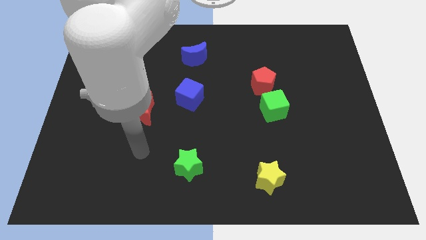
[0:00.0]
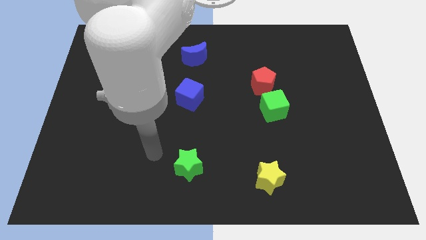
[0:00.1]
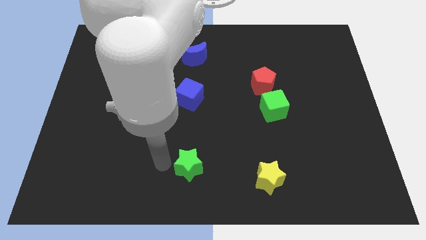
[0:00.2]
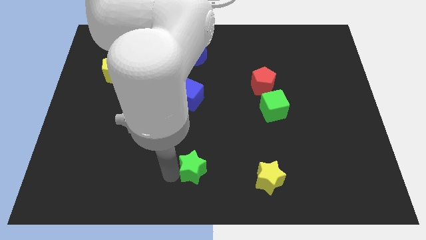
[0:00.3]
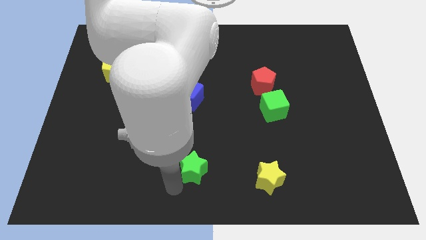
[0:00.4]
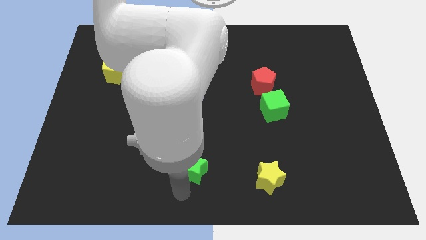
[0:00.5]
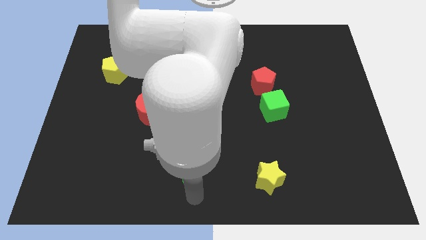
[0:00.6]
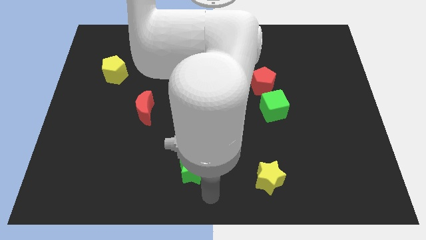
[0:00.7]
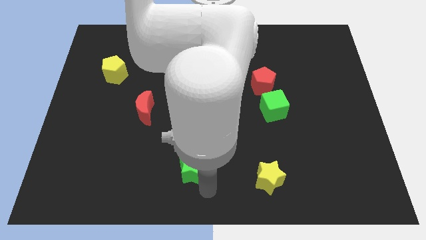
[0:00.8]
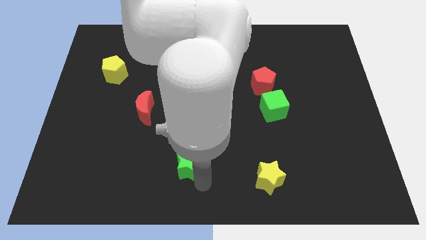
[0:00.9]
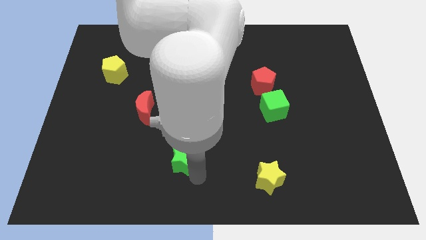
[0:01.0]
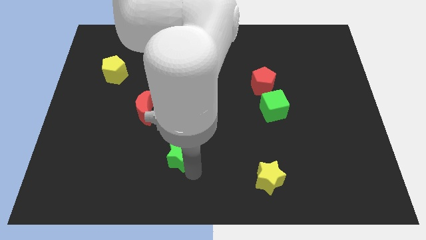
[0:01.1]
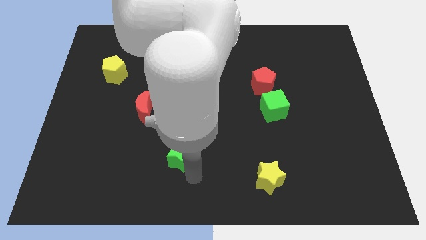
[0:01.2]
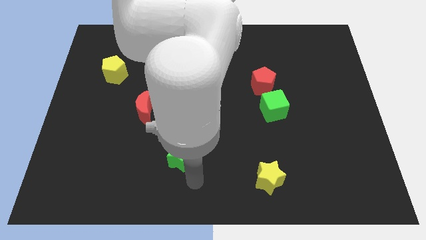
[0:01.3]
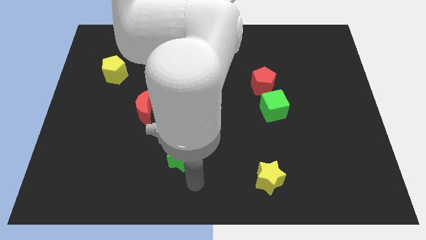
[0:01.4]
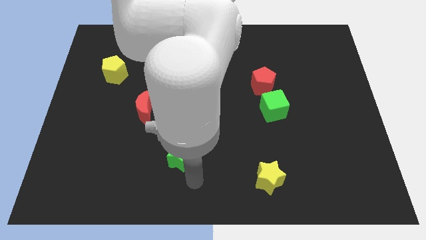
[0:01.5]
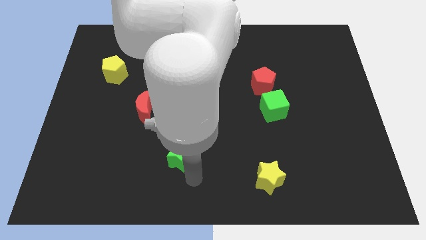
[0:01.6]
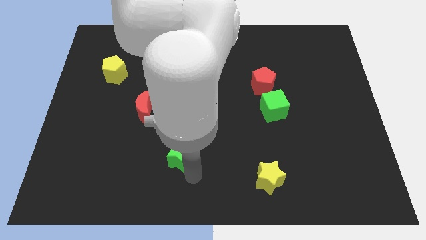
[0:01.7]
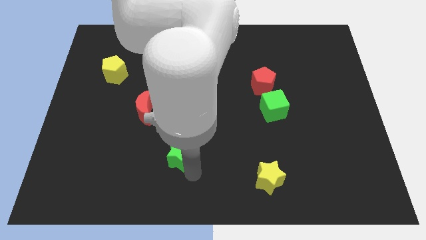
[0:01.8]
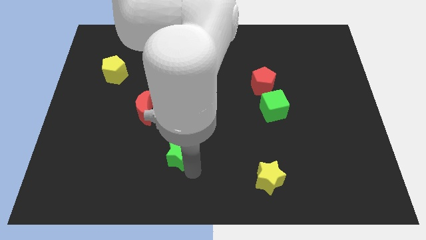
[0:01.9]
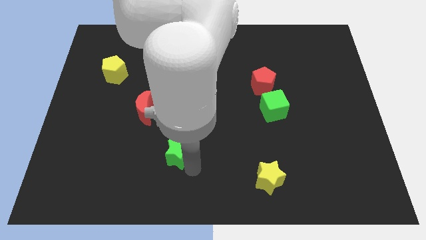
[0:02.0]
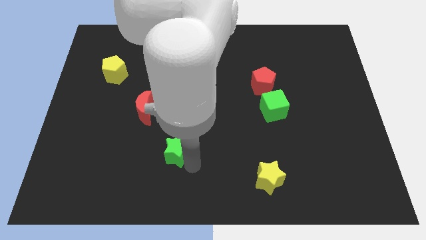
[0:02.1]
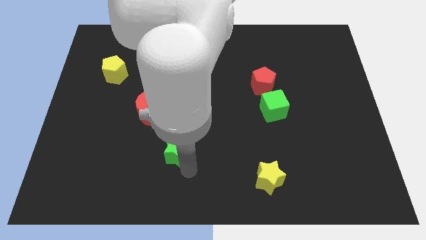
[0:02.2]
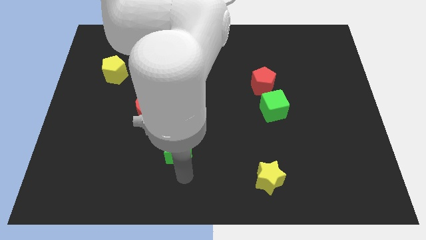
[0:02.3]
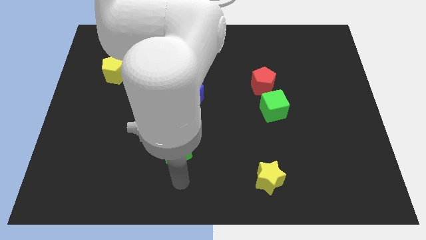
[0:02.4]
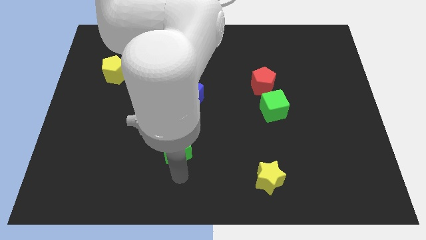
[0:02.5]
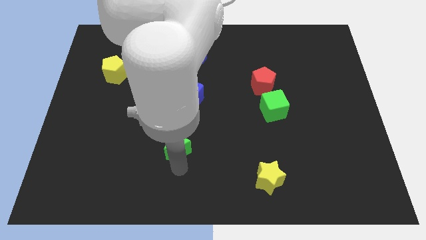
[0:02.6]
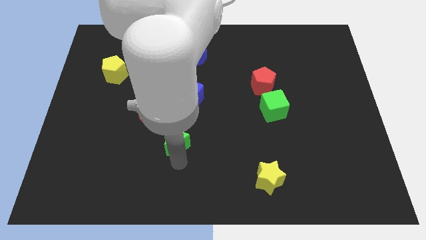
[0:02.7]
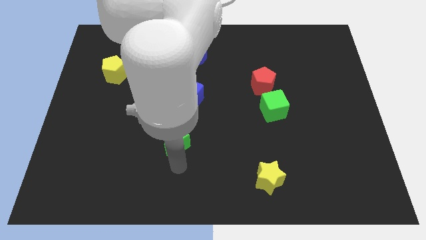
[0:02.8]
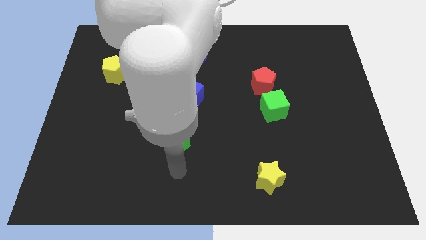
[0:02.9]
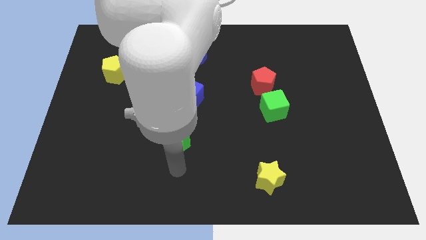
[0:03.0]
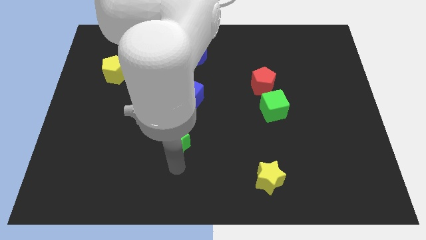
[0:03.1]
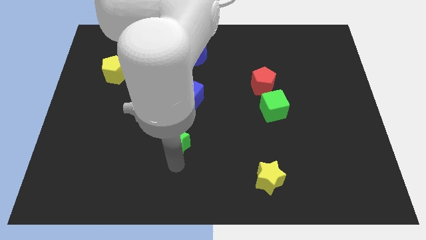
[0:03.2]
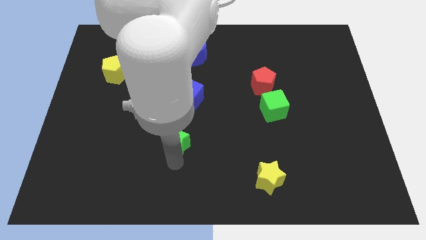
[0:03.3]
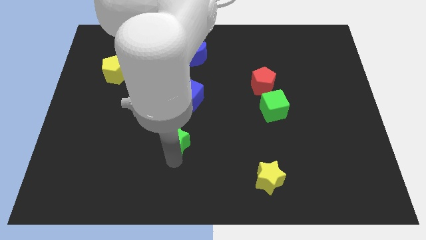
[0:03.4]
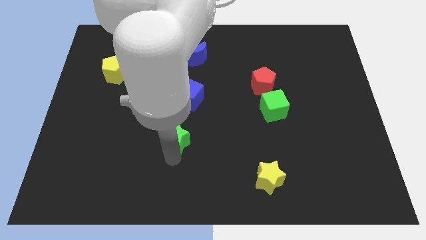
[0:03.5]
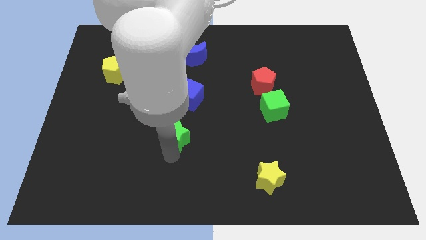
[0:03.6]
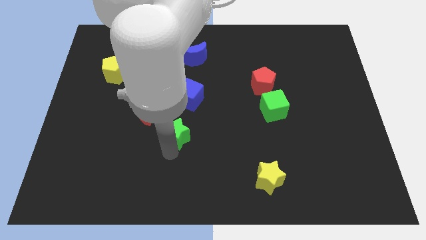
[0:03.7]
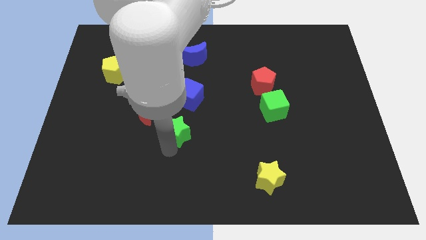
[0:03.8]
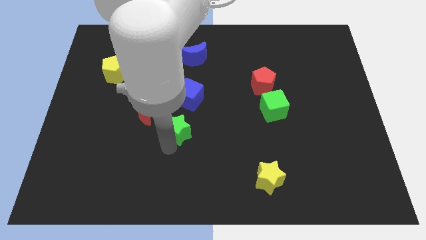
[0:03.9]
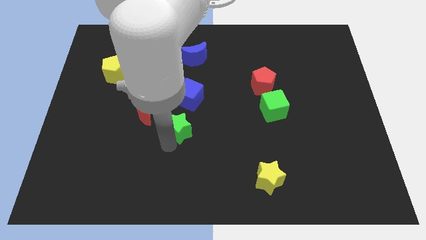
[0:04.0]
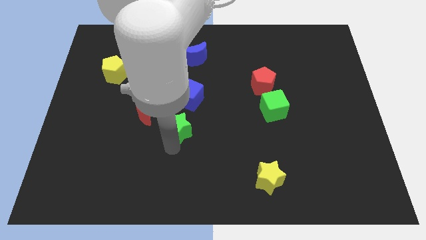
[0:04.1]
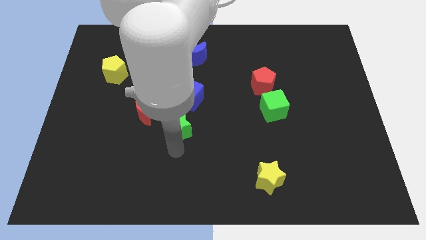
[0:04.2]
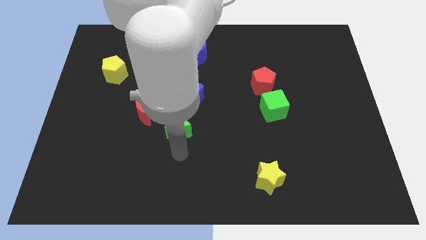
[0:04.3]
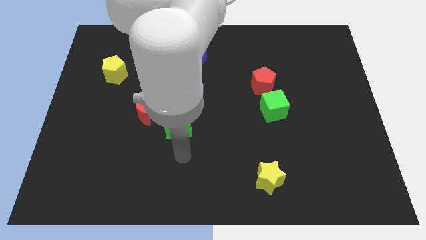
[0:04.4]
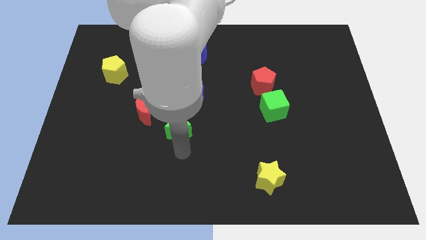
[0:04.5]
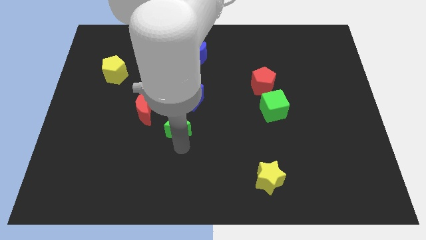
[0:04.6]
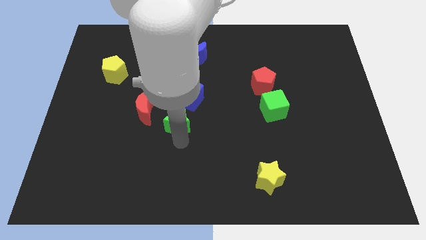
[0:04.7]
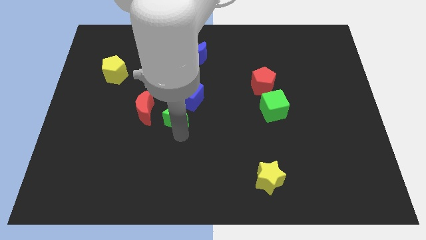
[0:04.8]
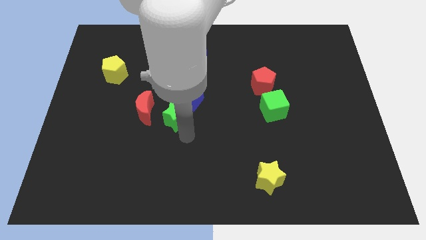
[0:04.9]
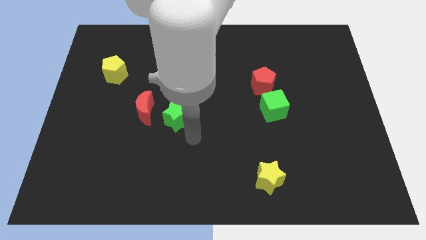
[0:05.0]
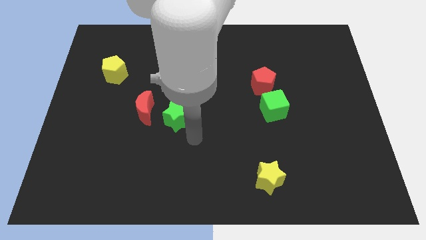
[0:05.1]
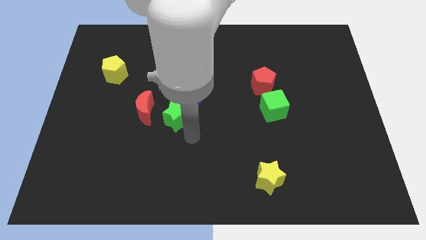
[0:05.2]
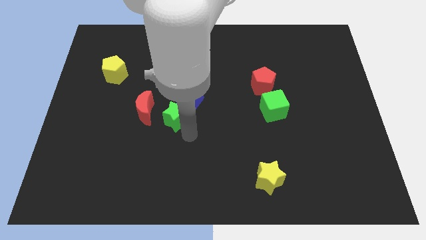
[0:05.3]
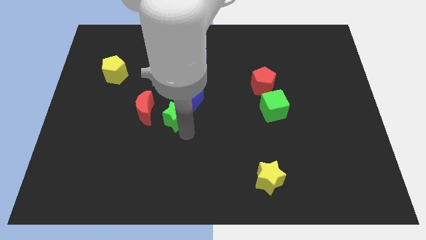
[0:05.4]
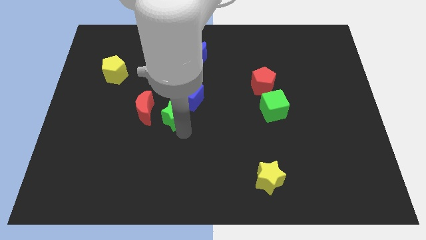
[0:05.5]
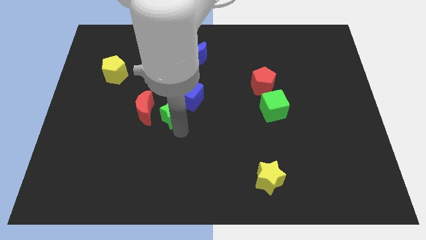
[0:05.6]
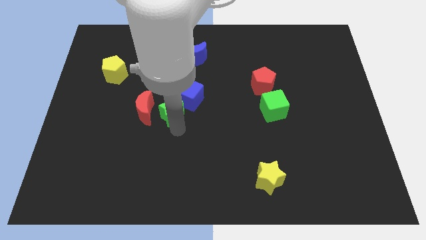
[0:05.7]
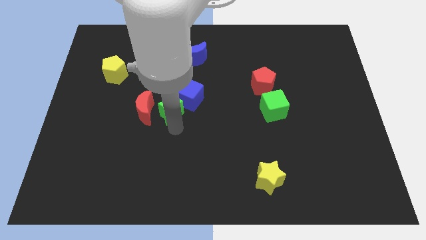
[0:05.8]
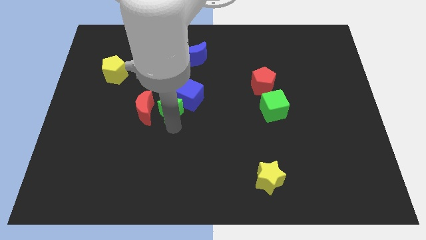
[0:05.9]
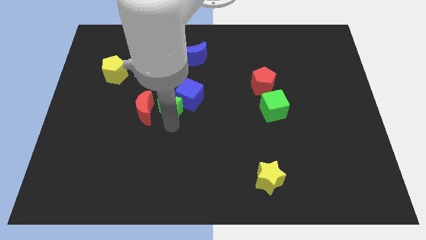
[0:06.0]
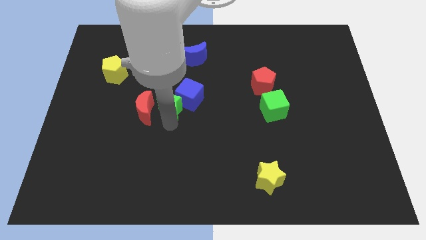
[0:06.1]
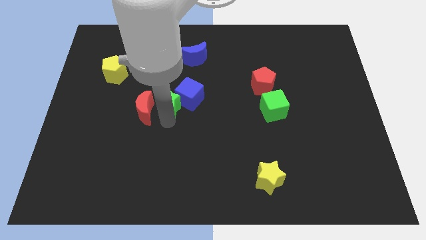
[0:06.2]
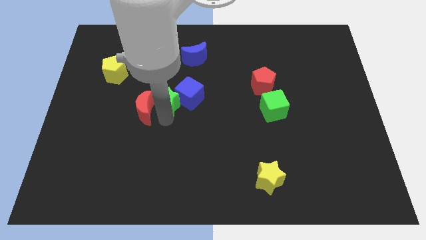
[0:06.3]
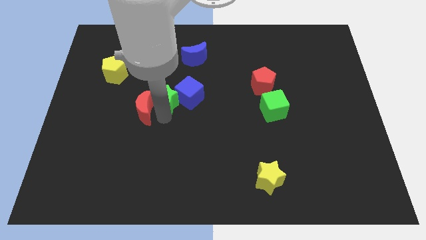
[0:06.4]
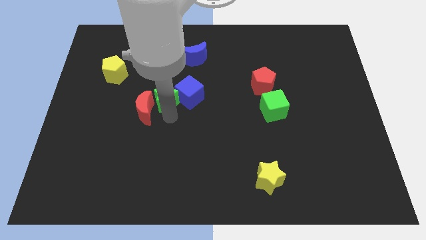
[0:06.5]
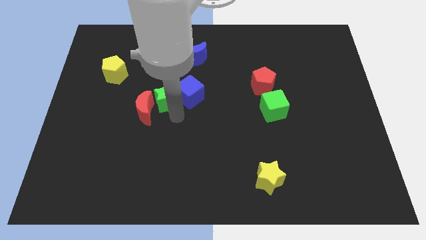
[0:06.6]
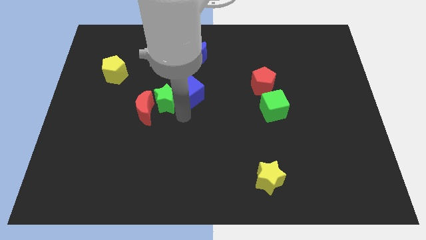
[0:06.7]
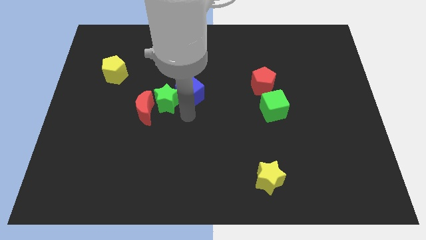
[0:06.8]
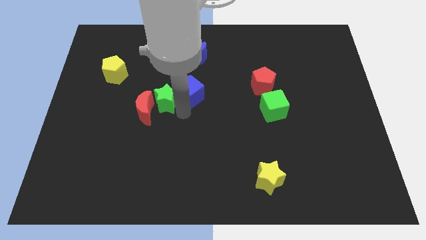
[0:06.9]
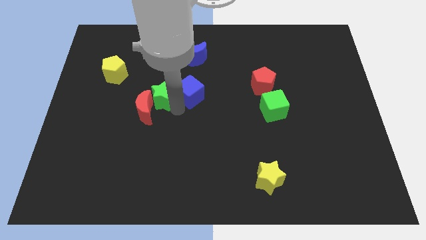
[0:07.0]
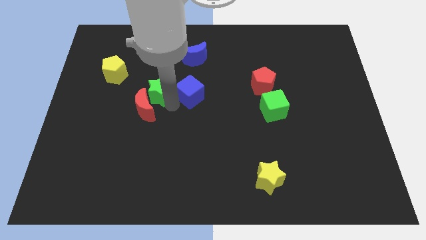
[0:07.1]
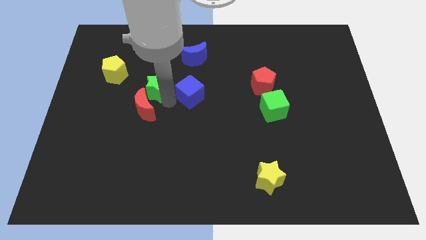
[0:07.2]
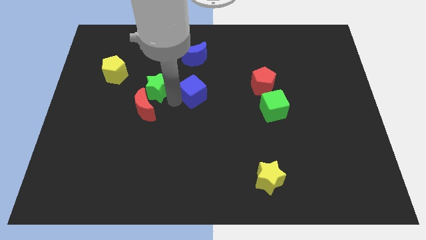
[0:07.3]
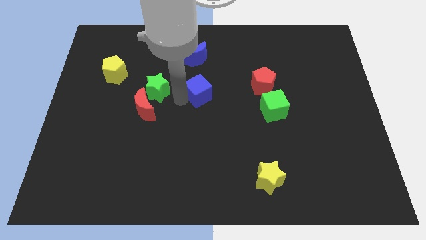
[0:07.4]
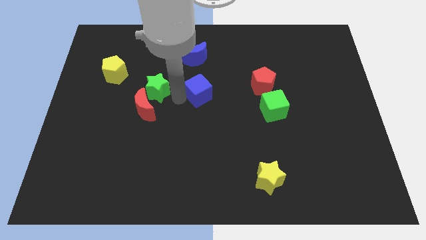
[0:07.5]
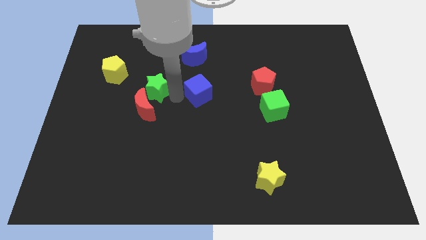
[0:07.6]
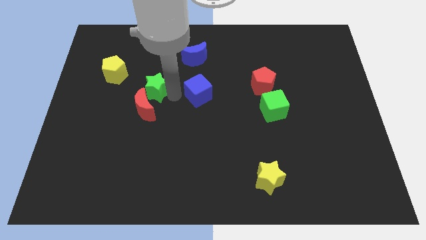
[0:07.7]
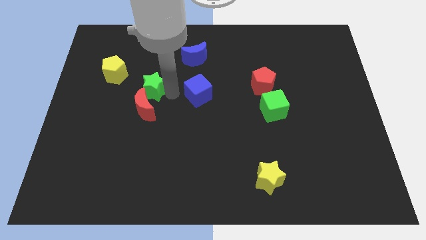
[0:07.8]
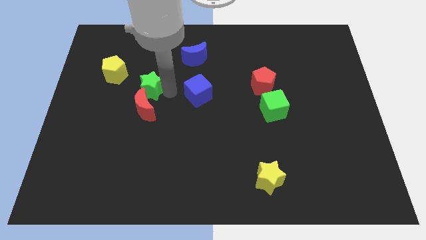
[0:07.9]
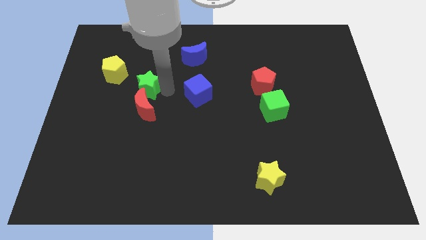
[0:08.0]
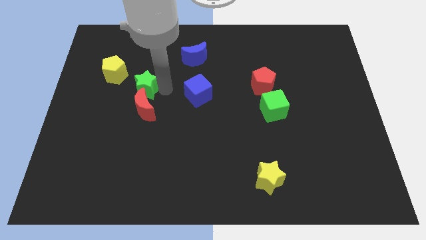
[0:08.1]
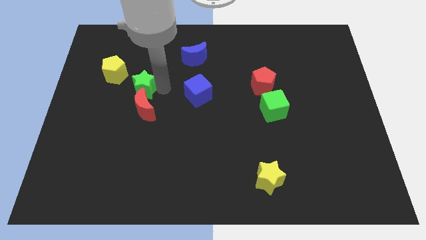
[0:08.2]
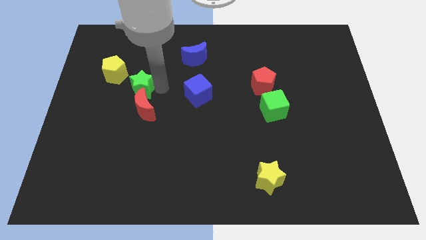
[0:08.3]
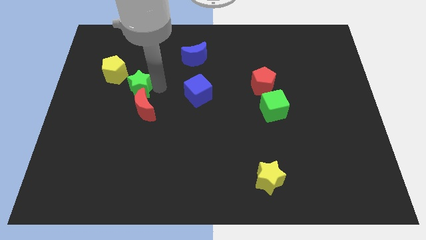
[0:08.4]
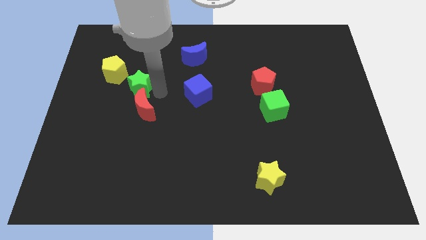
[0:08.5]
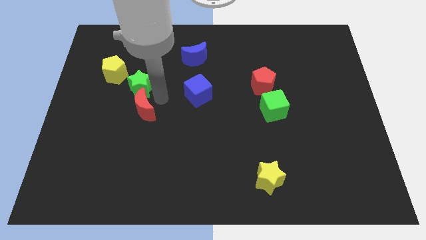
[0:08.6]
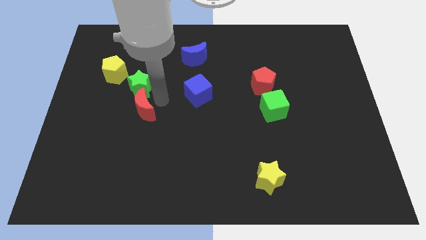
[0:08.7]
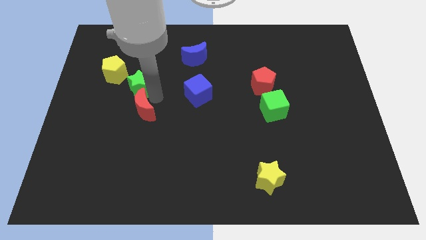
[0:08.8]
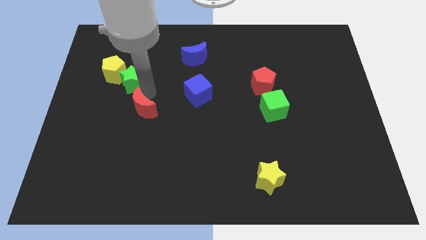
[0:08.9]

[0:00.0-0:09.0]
slide the green star towards the yellow pentagon
